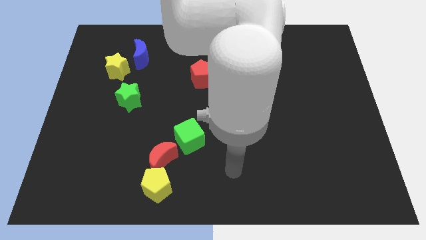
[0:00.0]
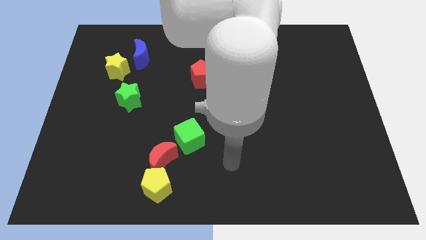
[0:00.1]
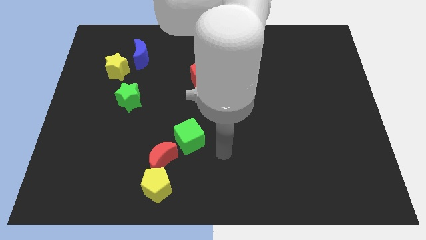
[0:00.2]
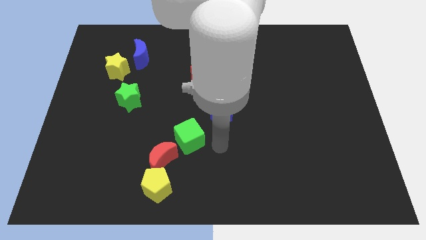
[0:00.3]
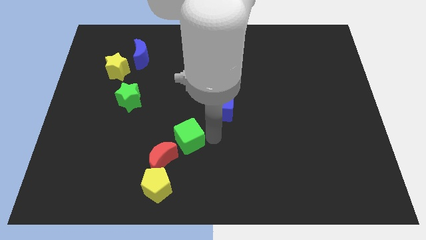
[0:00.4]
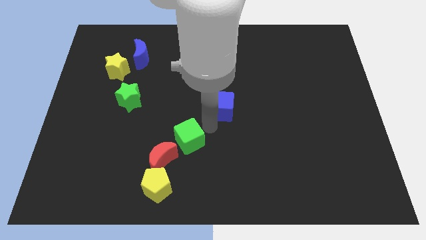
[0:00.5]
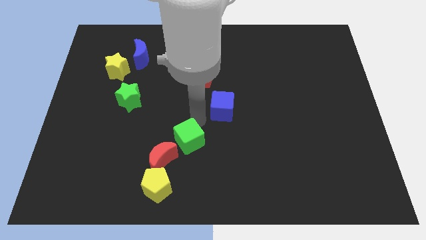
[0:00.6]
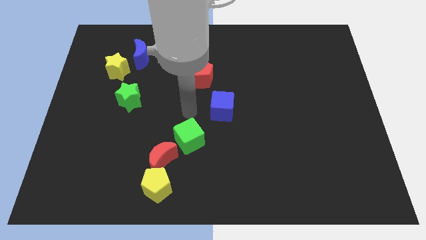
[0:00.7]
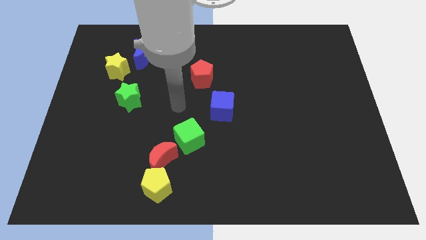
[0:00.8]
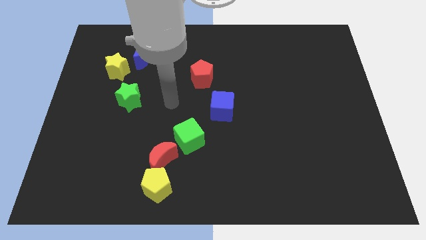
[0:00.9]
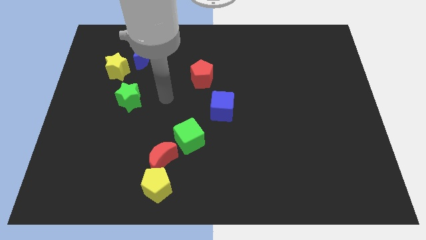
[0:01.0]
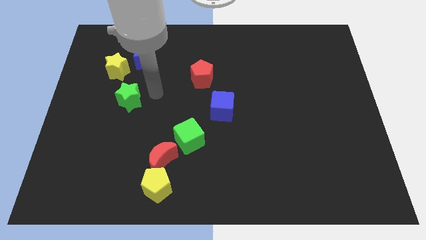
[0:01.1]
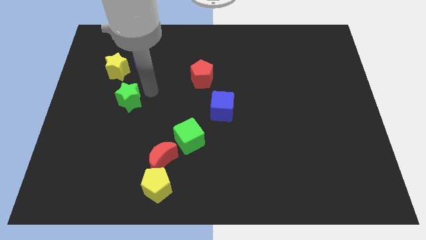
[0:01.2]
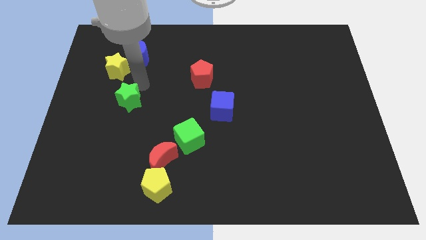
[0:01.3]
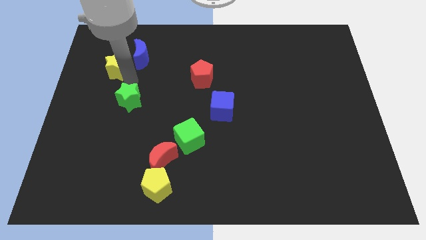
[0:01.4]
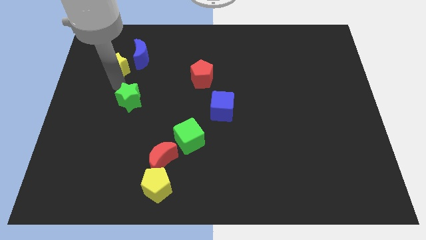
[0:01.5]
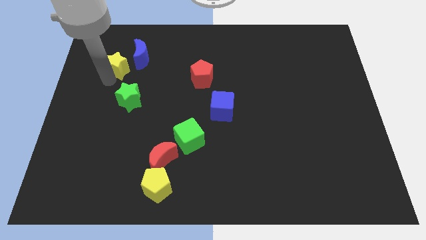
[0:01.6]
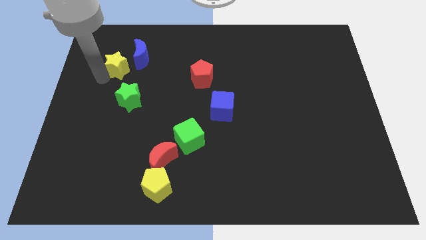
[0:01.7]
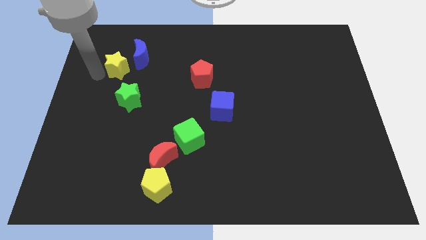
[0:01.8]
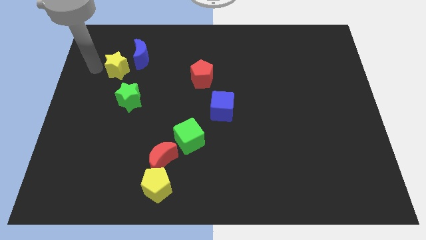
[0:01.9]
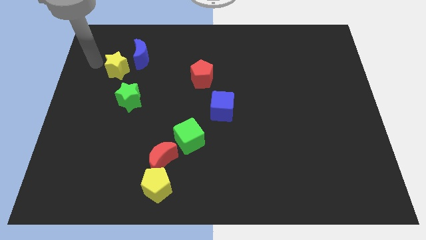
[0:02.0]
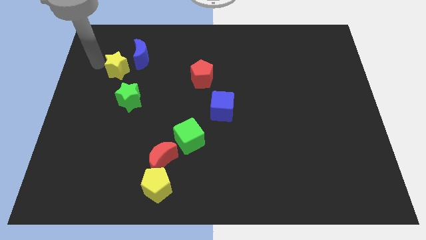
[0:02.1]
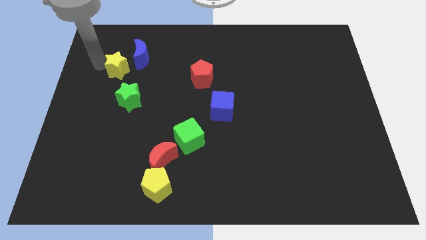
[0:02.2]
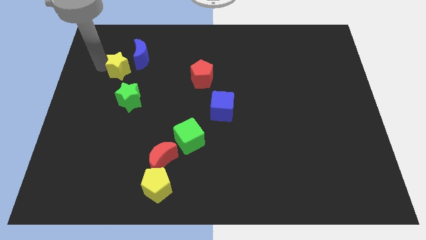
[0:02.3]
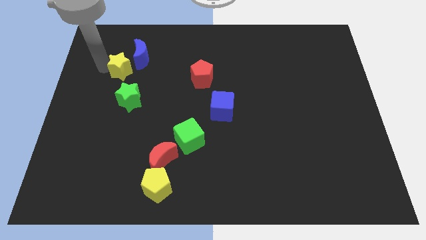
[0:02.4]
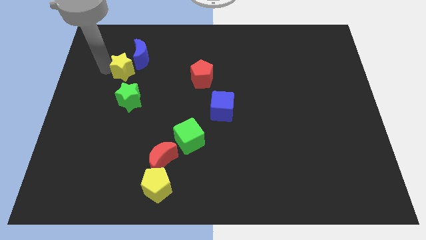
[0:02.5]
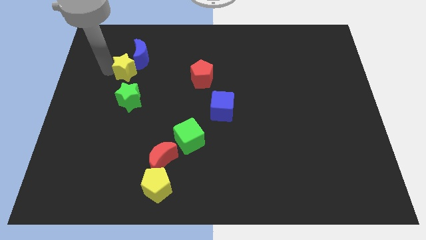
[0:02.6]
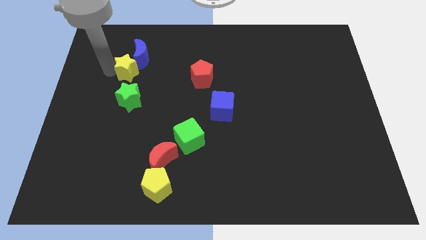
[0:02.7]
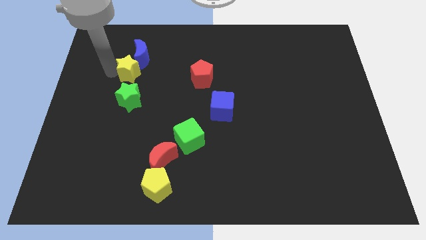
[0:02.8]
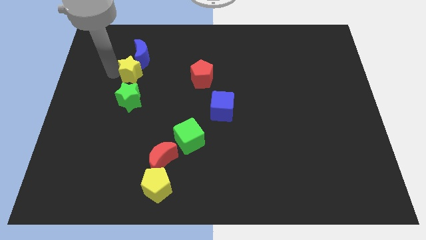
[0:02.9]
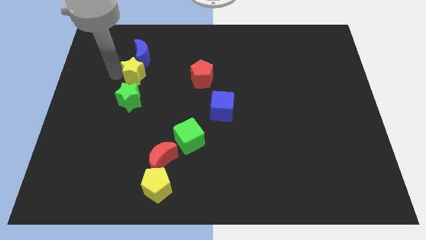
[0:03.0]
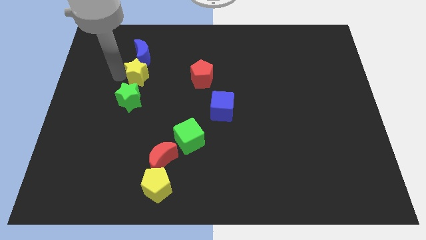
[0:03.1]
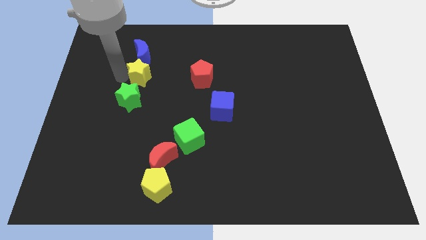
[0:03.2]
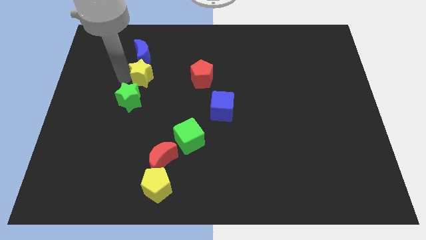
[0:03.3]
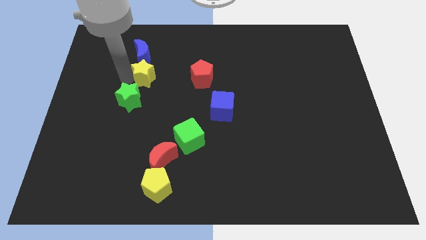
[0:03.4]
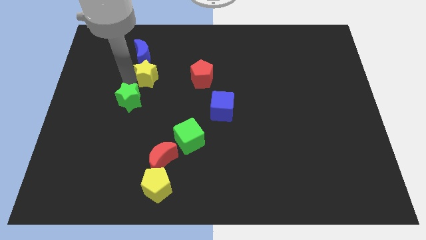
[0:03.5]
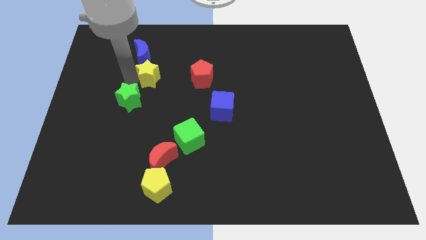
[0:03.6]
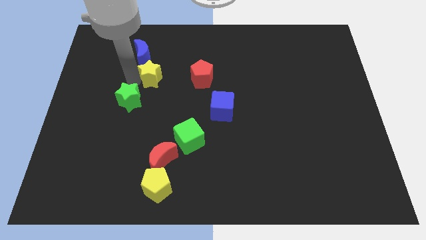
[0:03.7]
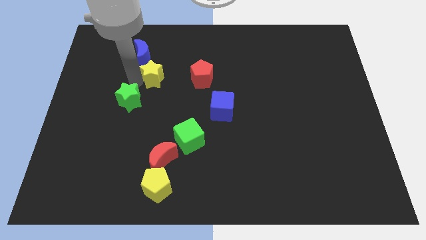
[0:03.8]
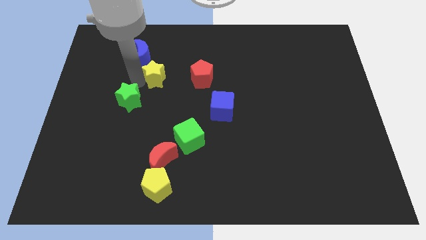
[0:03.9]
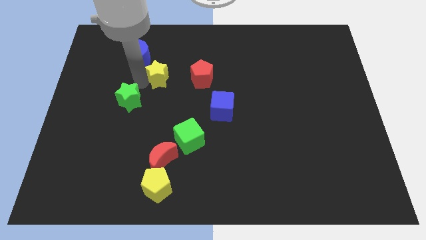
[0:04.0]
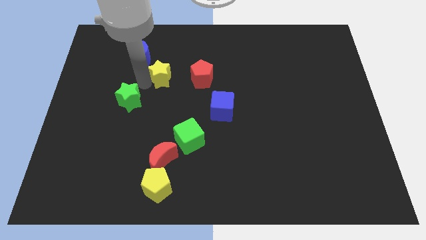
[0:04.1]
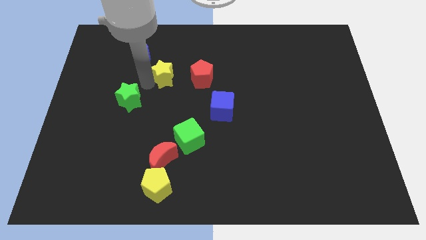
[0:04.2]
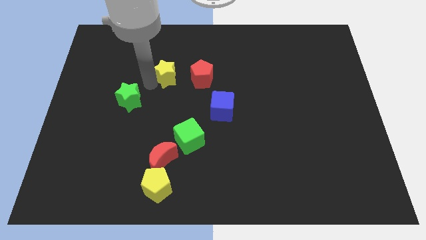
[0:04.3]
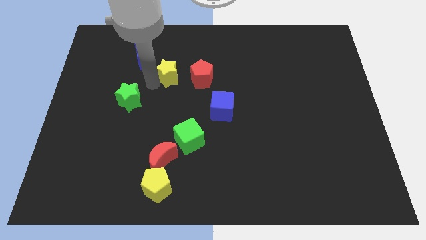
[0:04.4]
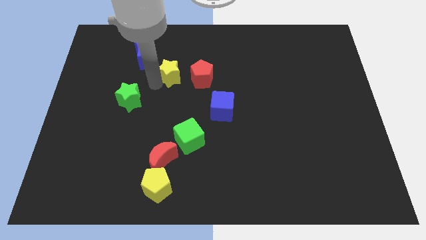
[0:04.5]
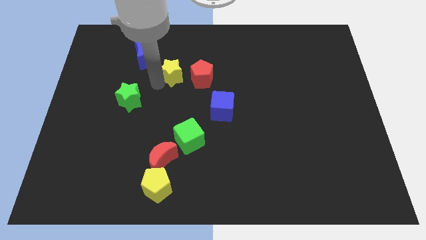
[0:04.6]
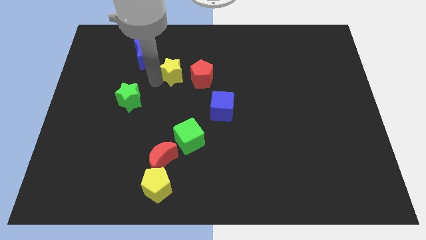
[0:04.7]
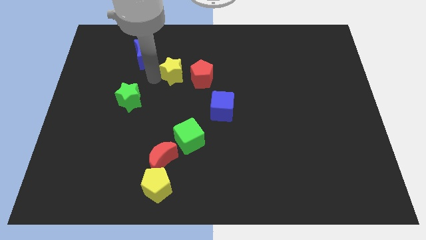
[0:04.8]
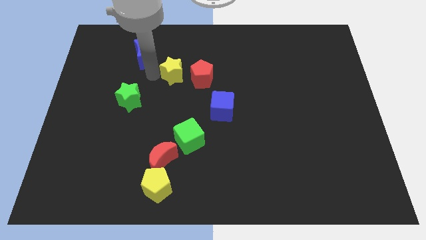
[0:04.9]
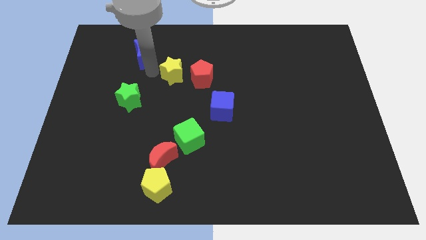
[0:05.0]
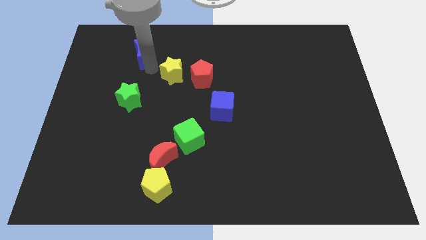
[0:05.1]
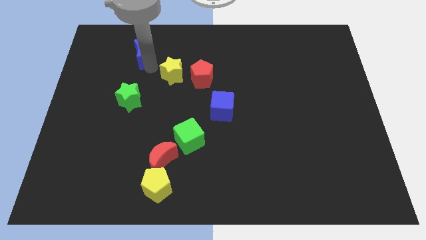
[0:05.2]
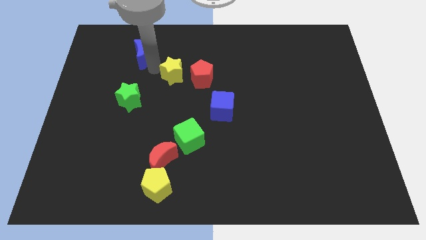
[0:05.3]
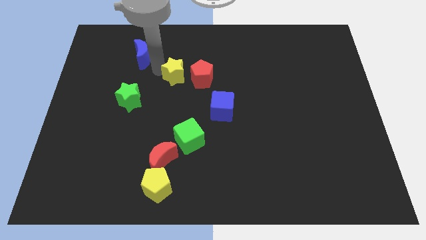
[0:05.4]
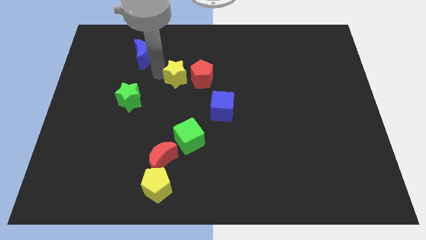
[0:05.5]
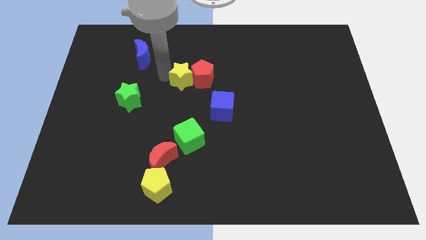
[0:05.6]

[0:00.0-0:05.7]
put the yellow star close to the red pentagon

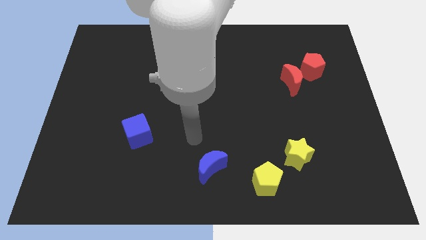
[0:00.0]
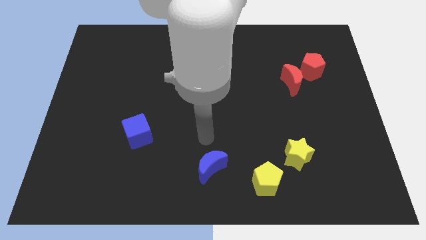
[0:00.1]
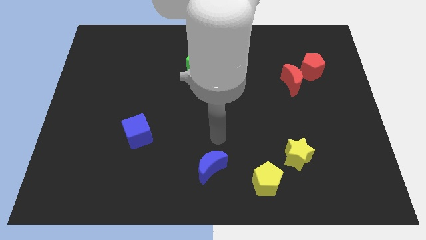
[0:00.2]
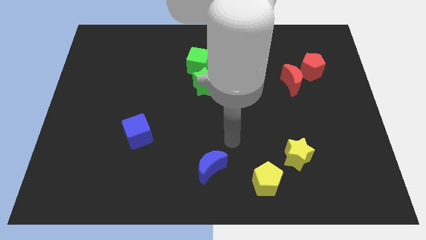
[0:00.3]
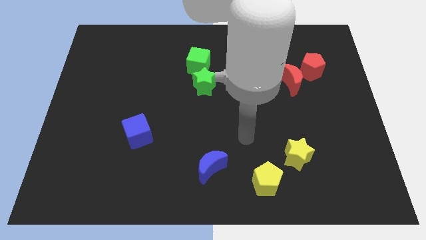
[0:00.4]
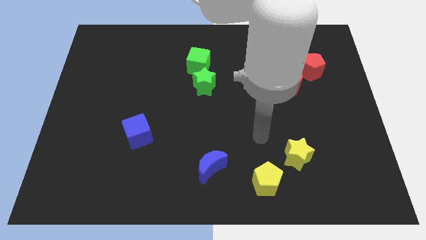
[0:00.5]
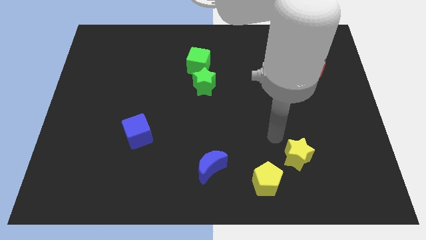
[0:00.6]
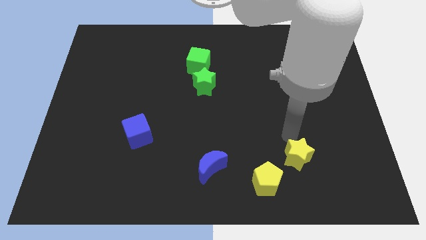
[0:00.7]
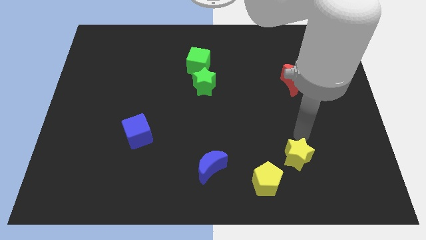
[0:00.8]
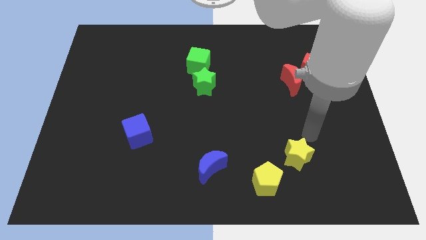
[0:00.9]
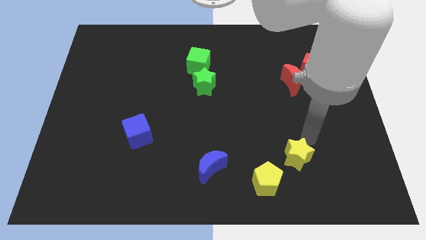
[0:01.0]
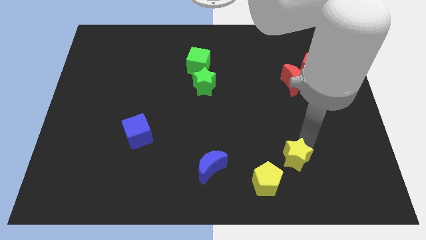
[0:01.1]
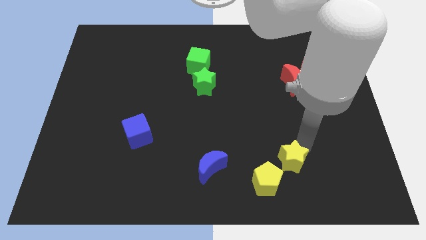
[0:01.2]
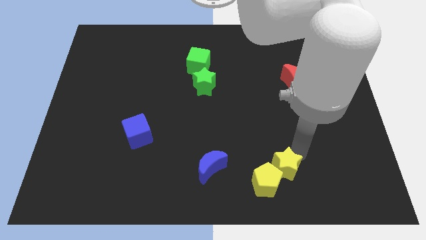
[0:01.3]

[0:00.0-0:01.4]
put the yellow star towards the yellow pentagon

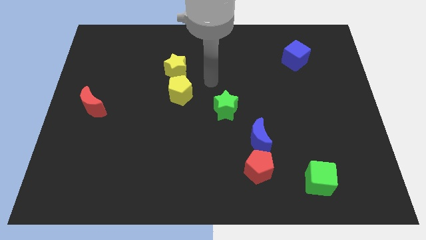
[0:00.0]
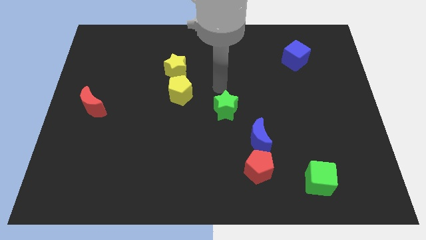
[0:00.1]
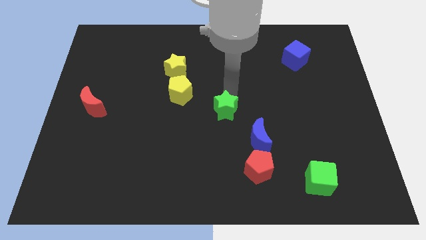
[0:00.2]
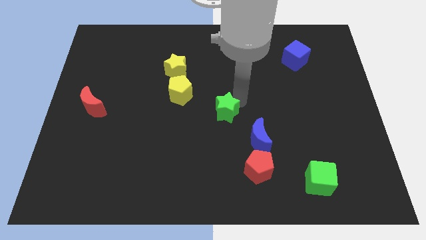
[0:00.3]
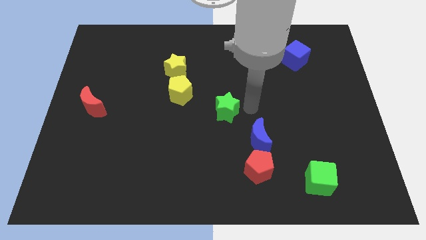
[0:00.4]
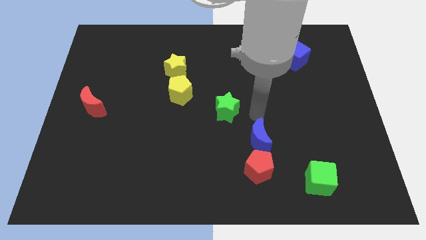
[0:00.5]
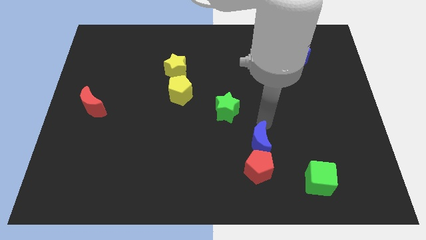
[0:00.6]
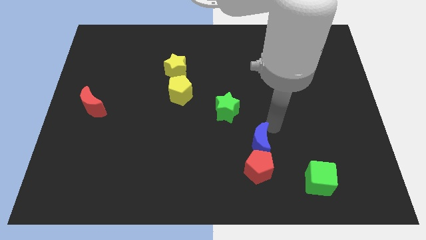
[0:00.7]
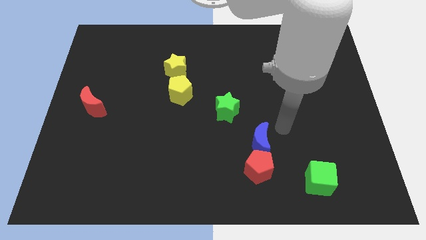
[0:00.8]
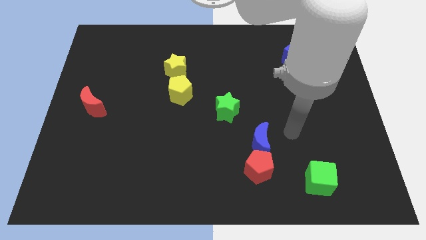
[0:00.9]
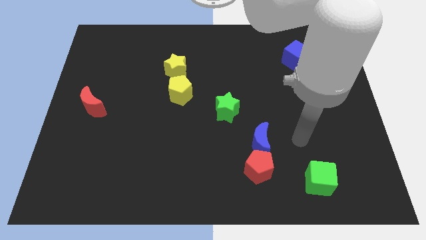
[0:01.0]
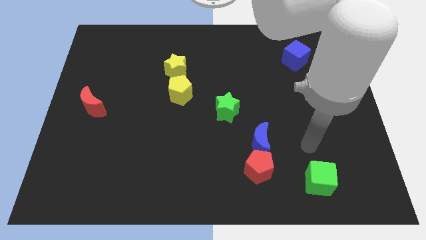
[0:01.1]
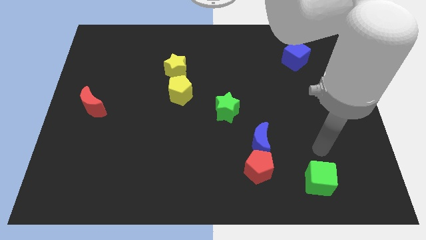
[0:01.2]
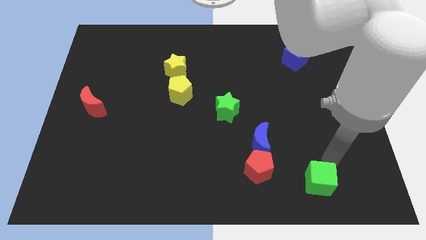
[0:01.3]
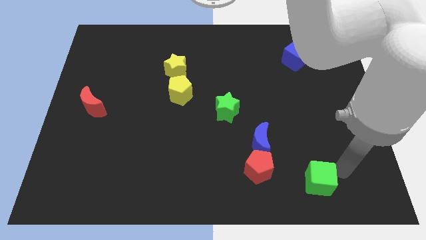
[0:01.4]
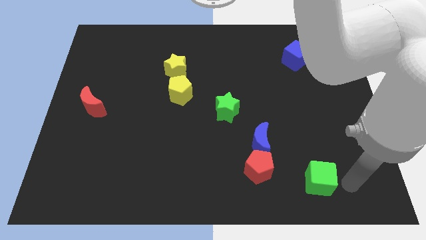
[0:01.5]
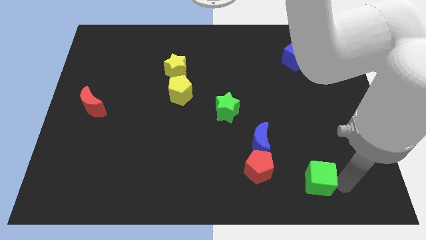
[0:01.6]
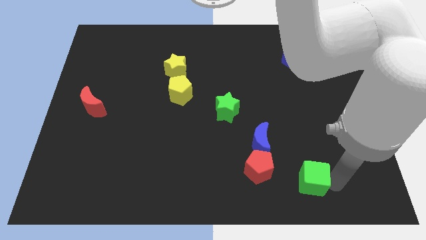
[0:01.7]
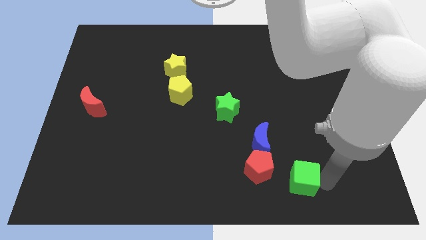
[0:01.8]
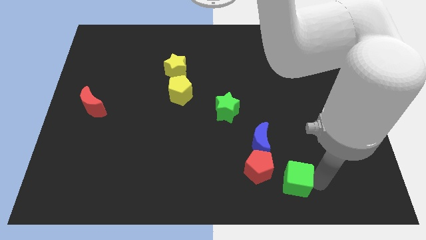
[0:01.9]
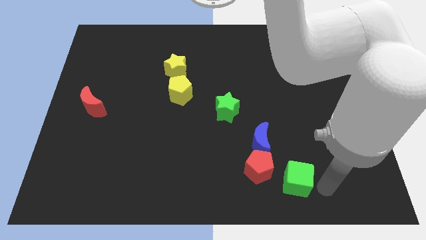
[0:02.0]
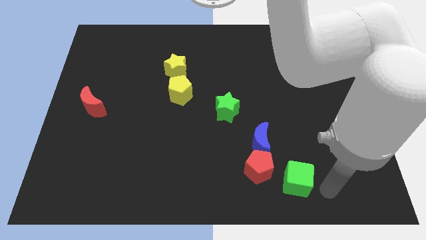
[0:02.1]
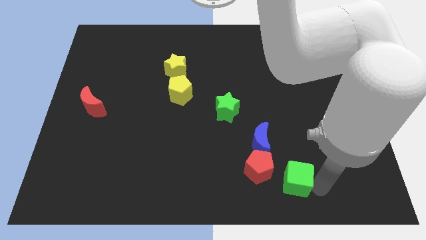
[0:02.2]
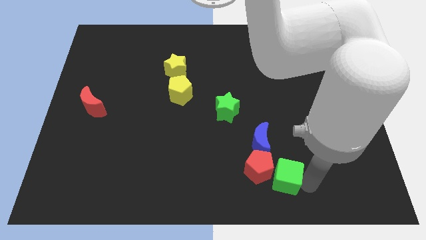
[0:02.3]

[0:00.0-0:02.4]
push the green cube to the red pentagon
